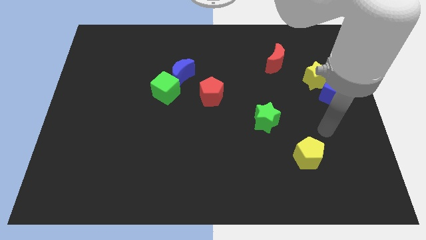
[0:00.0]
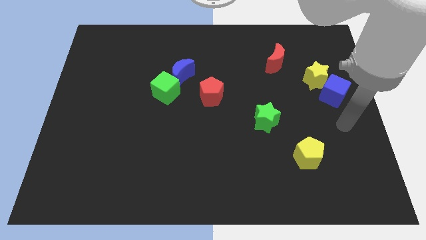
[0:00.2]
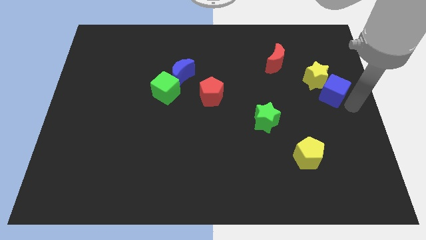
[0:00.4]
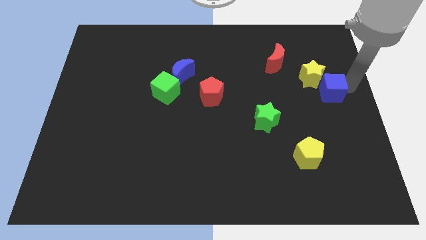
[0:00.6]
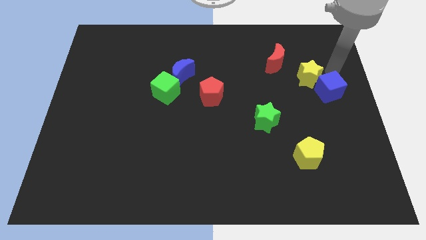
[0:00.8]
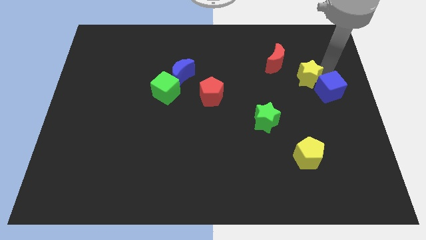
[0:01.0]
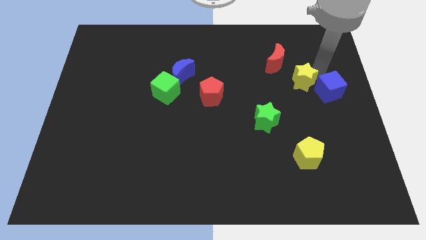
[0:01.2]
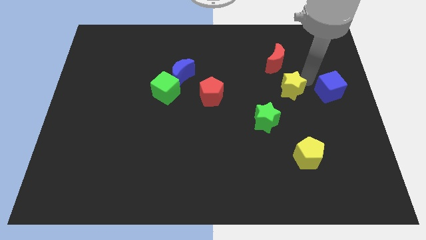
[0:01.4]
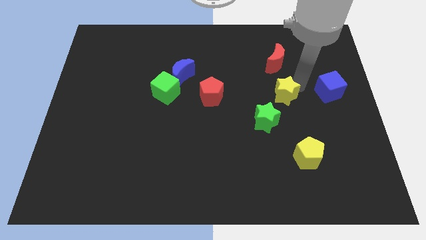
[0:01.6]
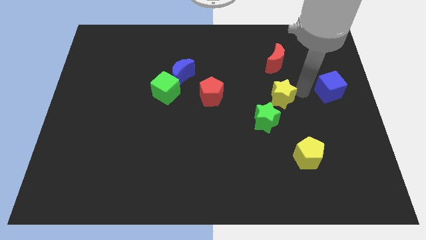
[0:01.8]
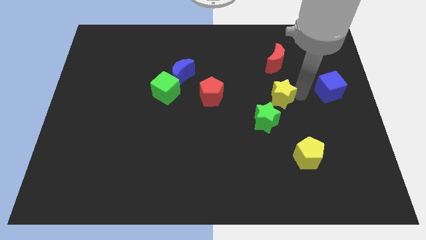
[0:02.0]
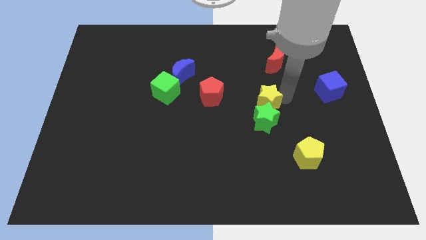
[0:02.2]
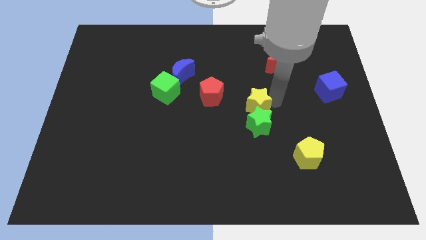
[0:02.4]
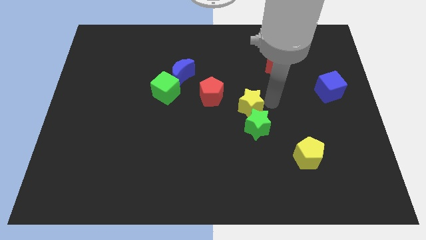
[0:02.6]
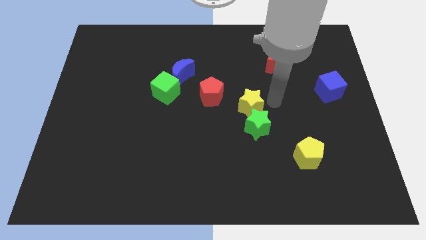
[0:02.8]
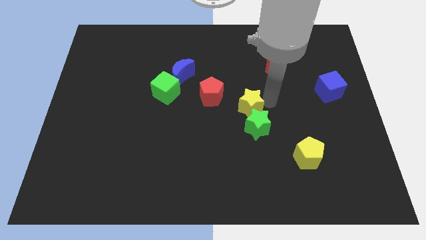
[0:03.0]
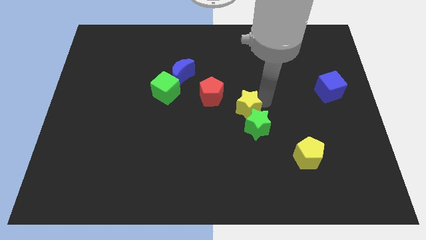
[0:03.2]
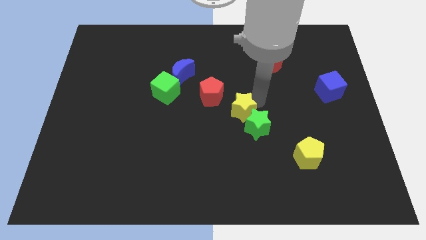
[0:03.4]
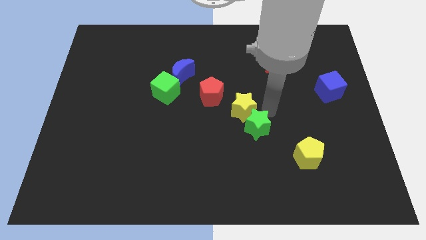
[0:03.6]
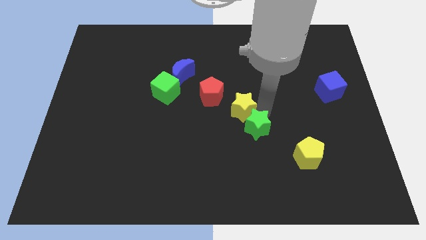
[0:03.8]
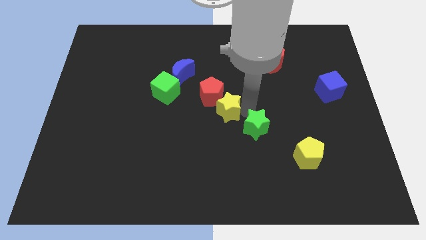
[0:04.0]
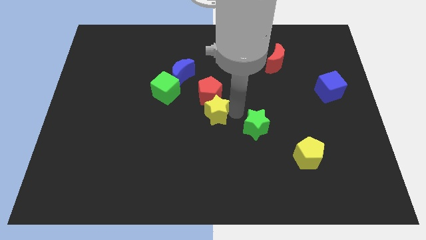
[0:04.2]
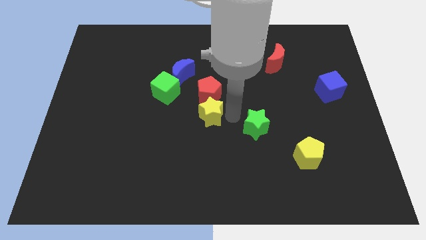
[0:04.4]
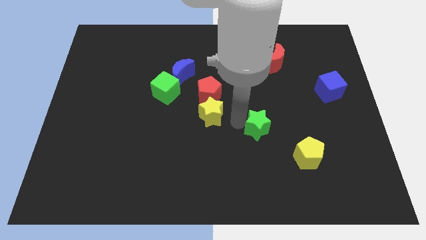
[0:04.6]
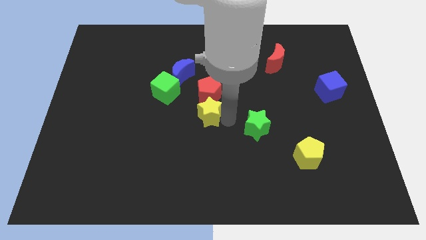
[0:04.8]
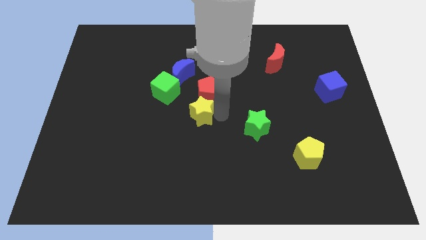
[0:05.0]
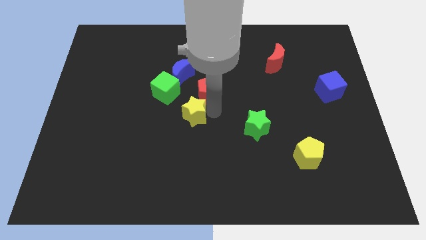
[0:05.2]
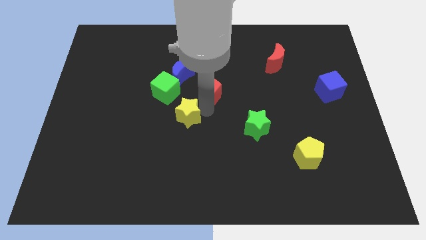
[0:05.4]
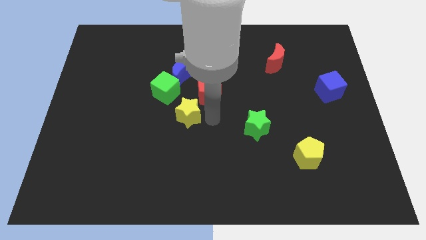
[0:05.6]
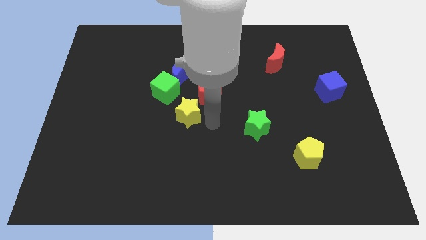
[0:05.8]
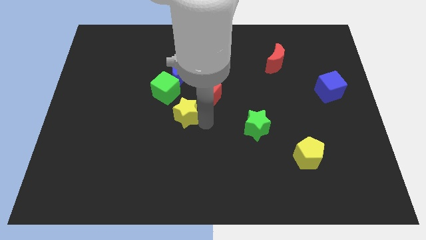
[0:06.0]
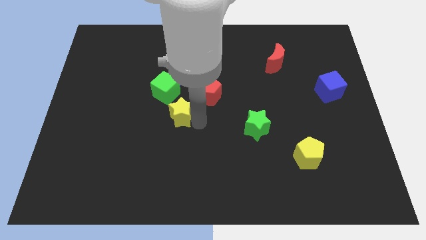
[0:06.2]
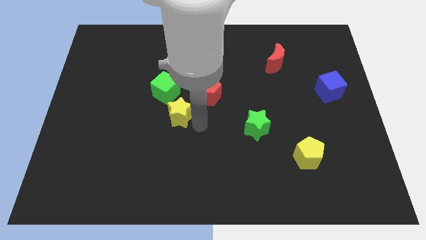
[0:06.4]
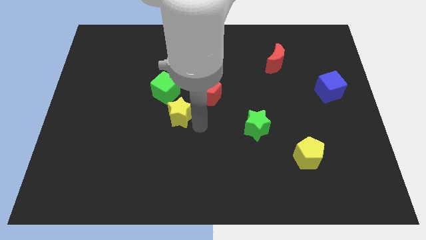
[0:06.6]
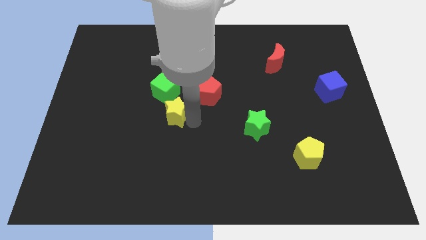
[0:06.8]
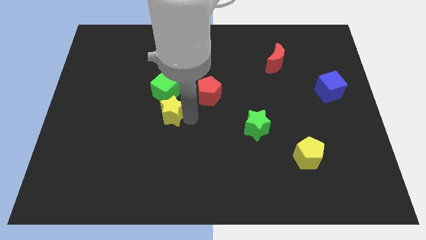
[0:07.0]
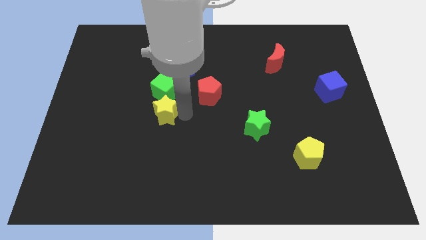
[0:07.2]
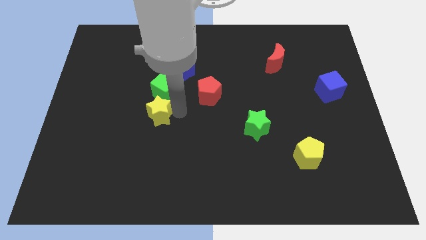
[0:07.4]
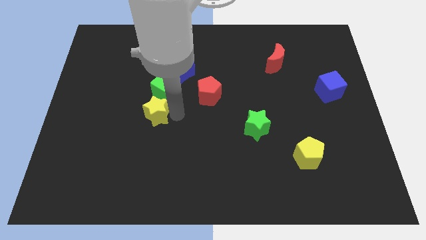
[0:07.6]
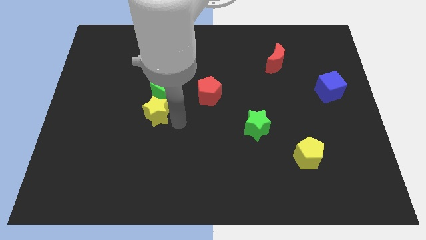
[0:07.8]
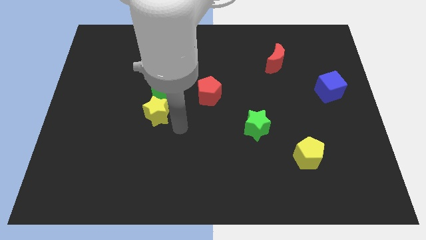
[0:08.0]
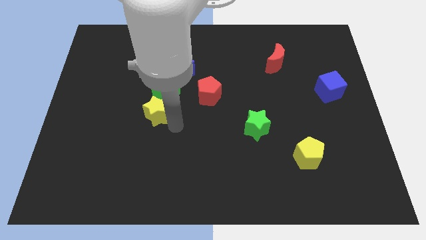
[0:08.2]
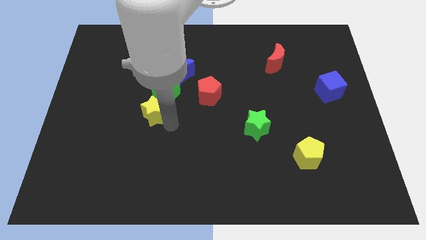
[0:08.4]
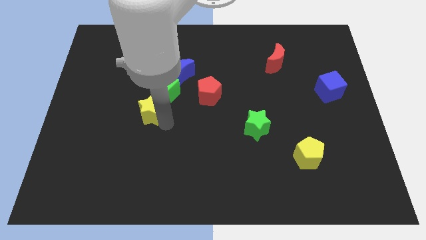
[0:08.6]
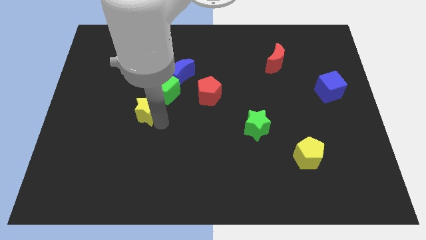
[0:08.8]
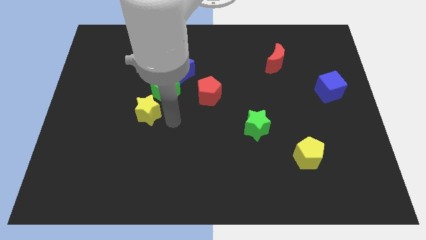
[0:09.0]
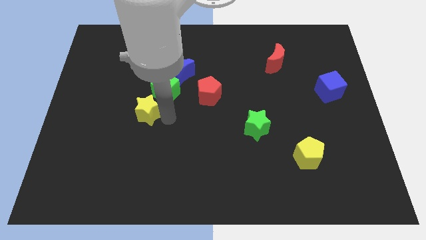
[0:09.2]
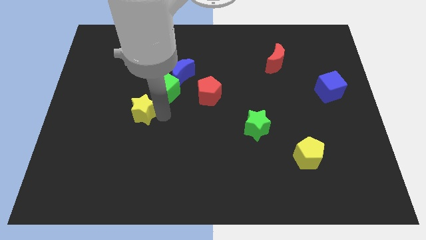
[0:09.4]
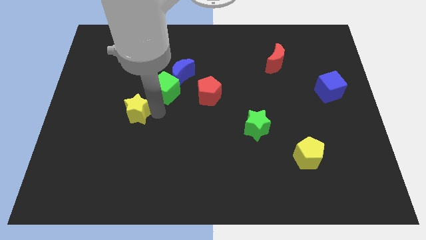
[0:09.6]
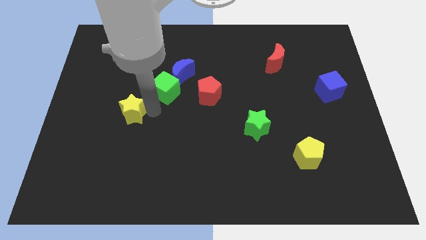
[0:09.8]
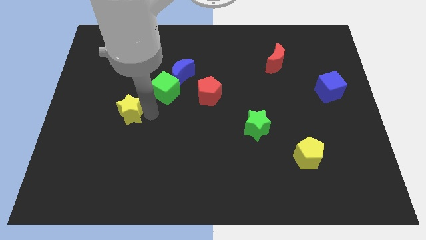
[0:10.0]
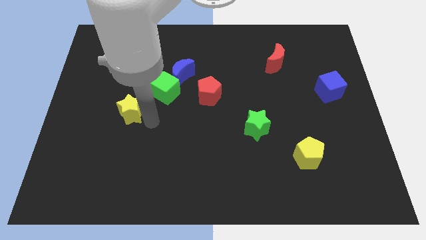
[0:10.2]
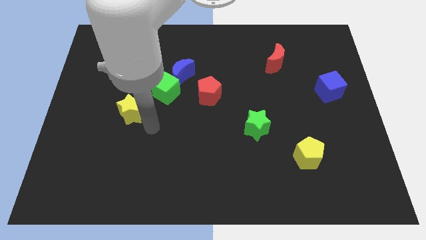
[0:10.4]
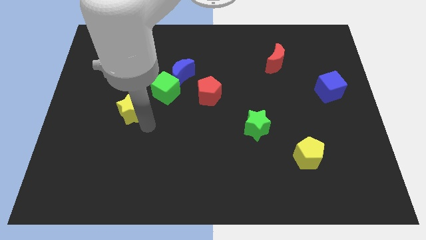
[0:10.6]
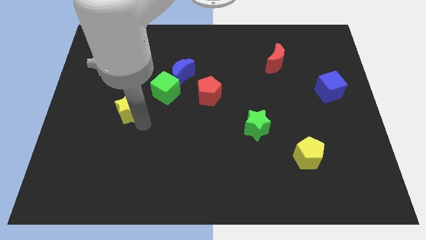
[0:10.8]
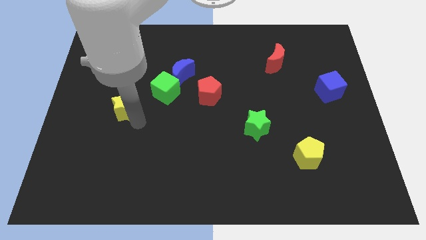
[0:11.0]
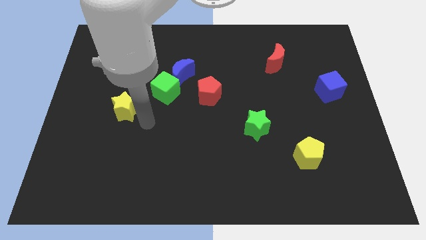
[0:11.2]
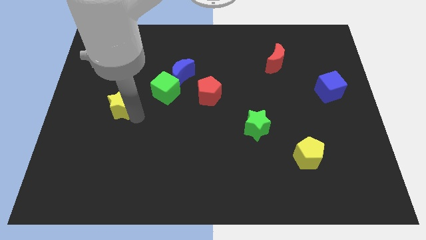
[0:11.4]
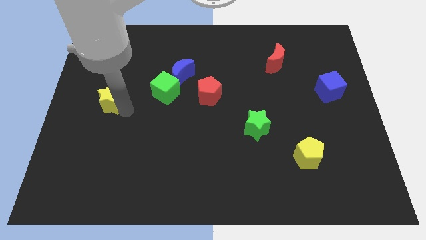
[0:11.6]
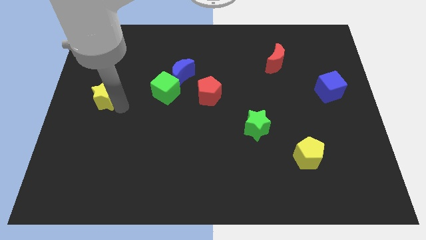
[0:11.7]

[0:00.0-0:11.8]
slide the yellow star to the center left

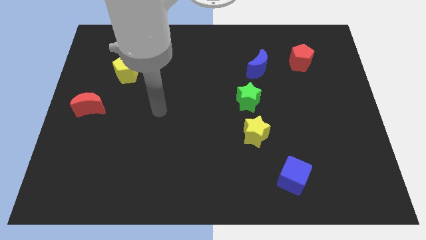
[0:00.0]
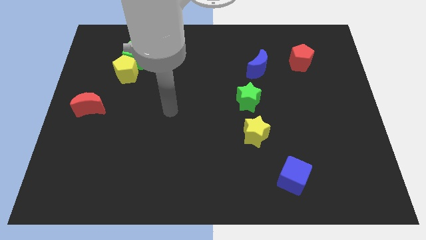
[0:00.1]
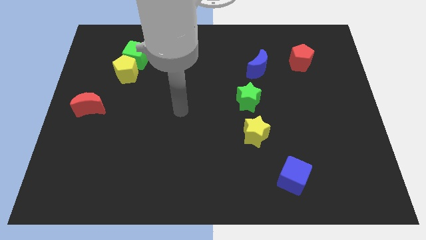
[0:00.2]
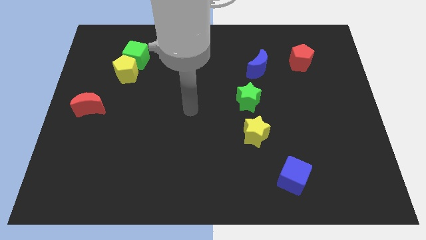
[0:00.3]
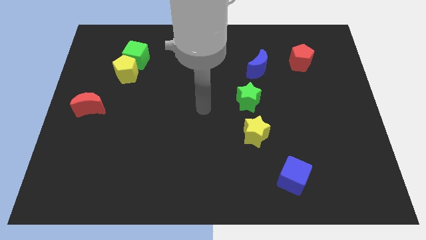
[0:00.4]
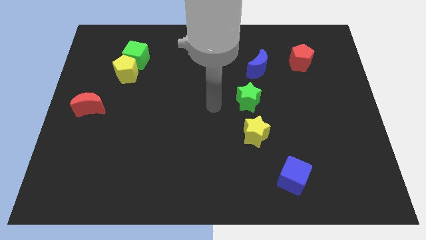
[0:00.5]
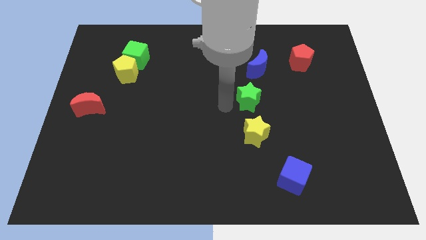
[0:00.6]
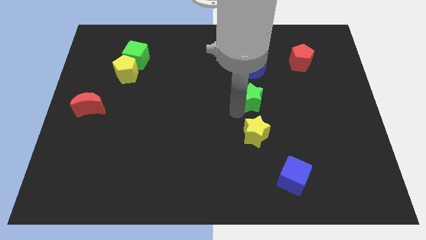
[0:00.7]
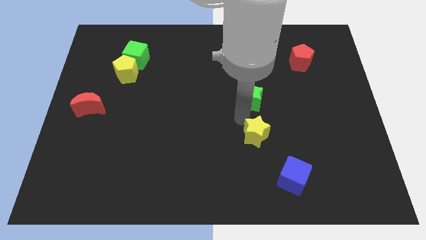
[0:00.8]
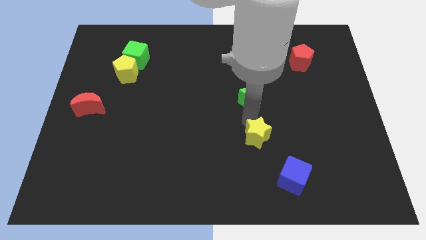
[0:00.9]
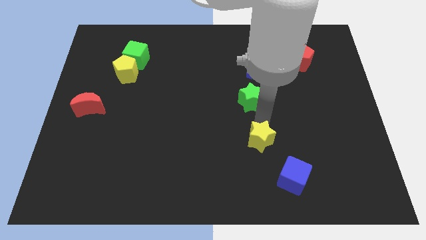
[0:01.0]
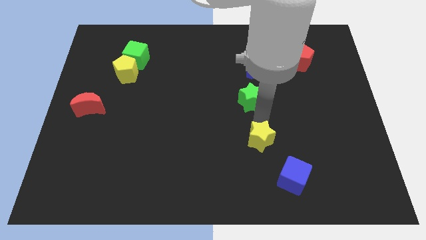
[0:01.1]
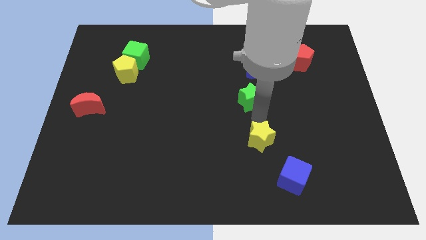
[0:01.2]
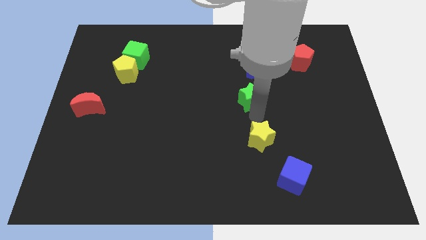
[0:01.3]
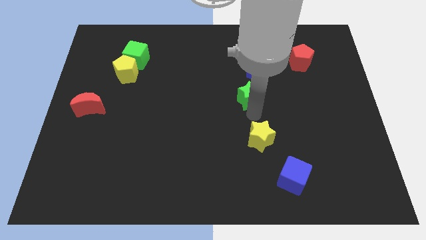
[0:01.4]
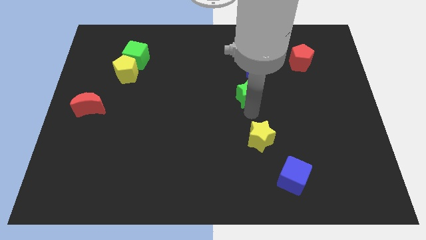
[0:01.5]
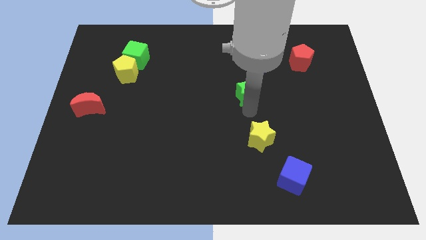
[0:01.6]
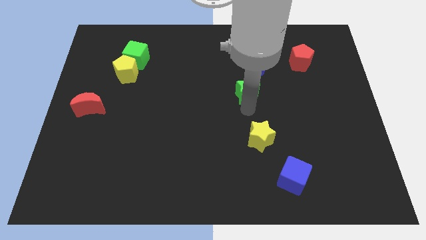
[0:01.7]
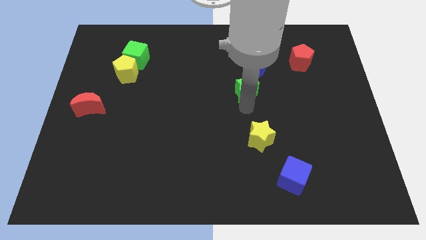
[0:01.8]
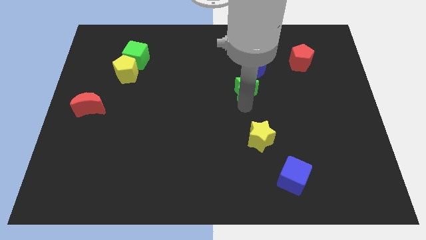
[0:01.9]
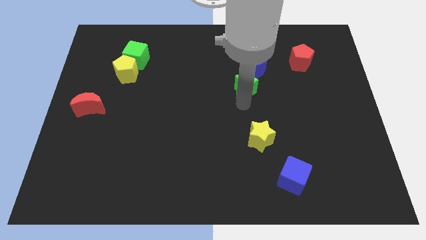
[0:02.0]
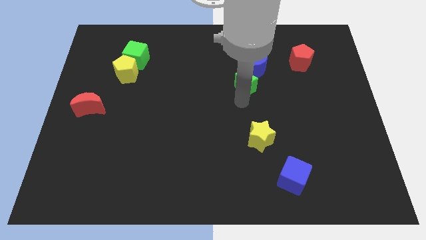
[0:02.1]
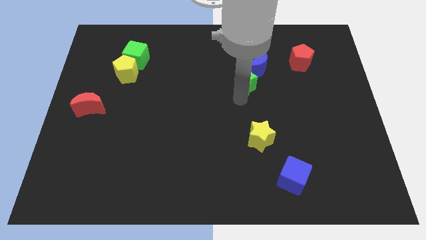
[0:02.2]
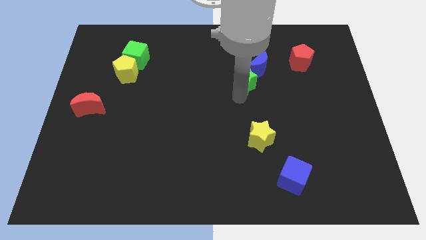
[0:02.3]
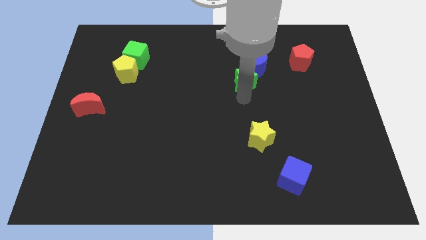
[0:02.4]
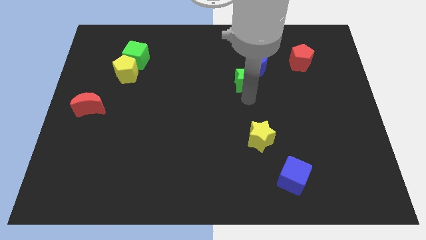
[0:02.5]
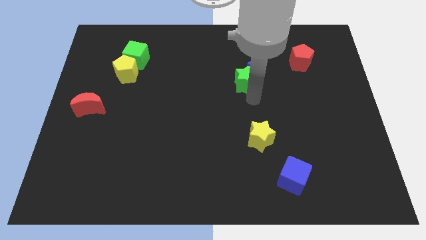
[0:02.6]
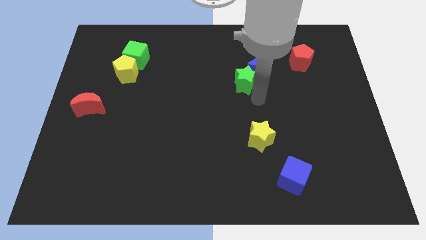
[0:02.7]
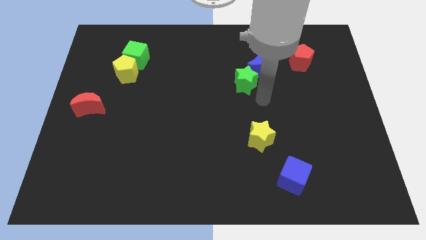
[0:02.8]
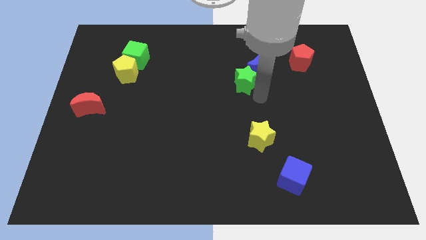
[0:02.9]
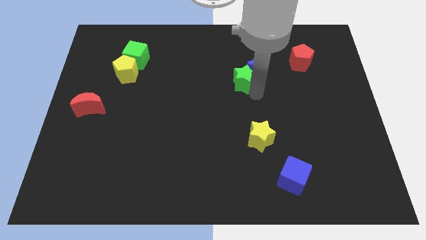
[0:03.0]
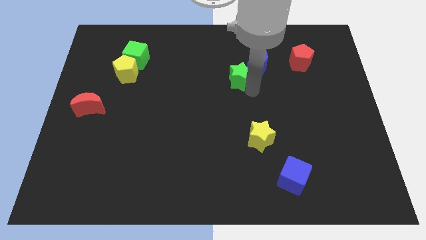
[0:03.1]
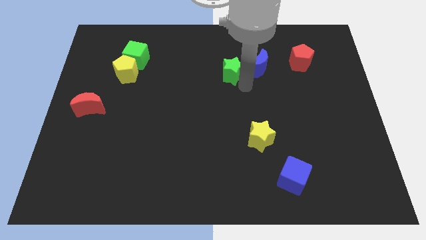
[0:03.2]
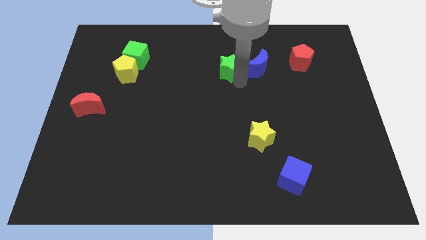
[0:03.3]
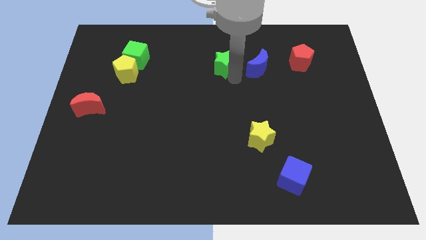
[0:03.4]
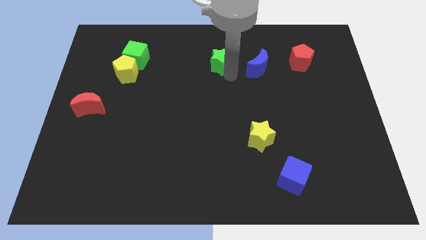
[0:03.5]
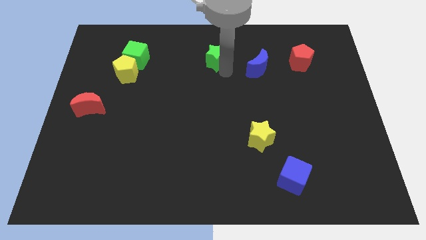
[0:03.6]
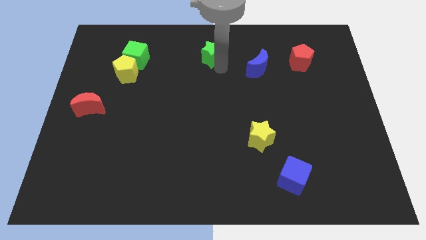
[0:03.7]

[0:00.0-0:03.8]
move the green star to the top side
